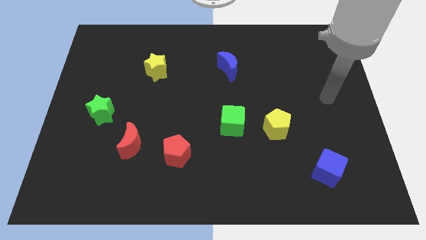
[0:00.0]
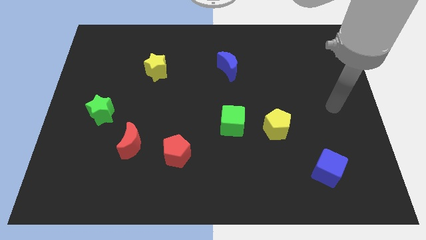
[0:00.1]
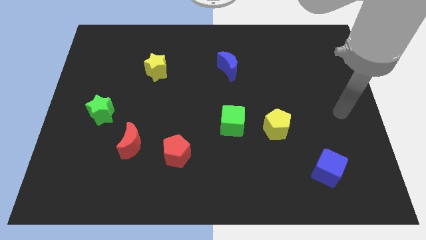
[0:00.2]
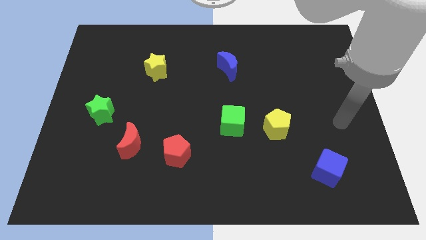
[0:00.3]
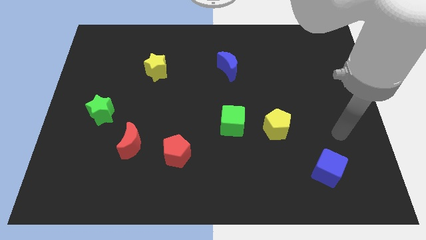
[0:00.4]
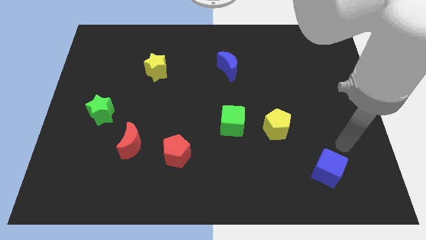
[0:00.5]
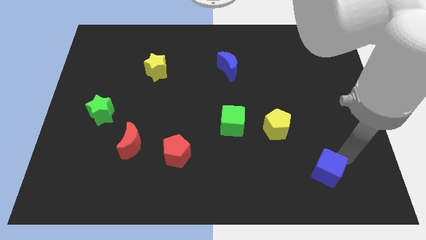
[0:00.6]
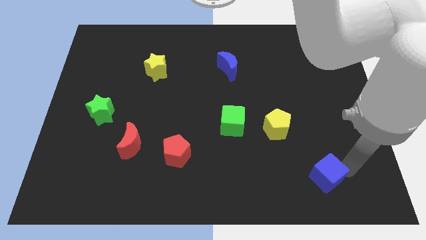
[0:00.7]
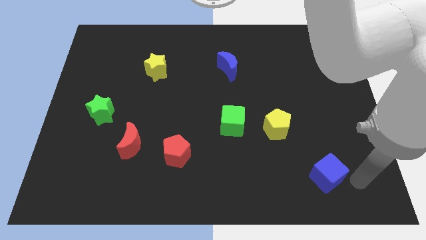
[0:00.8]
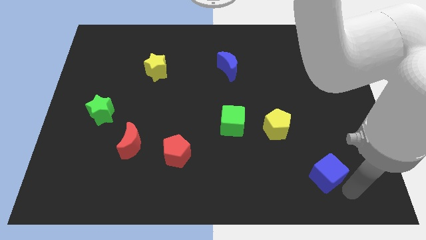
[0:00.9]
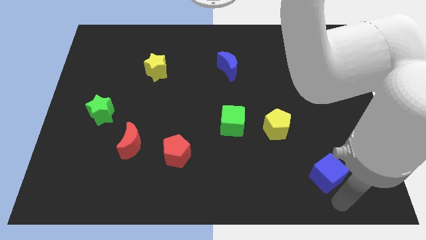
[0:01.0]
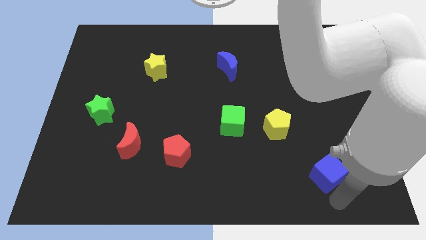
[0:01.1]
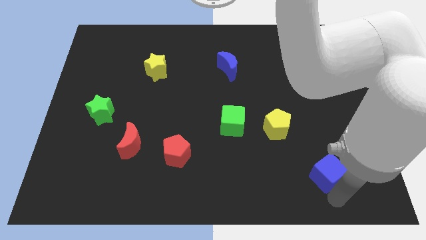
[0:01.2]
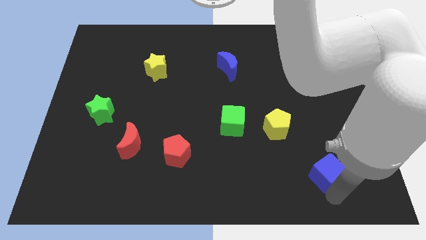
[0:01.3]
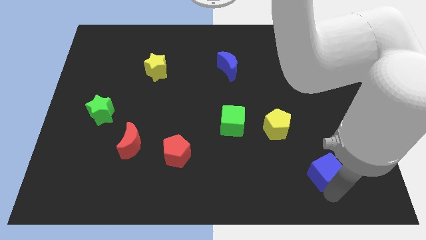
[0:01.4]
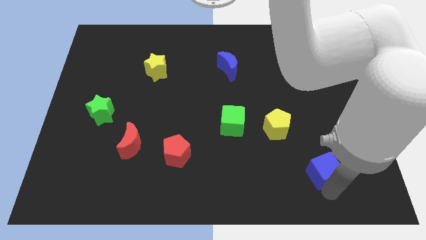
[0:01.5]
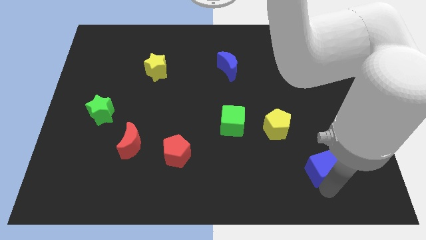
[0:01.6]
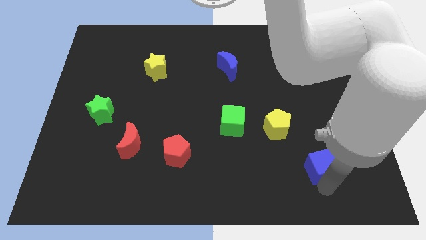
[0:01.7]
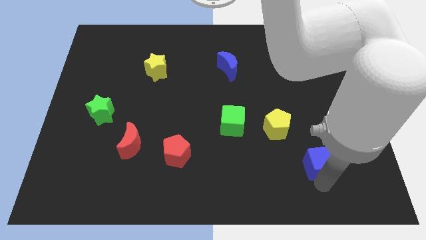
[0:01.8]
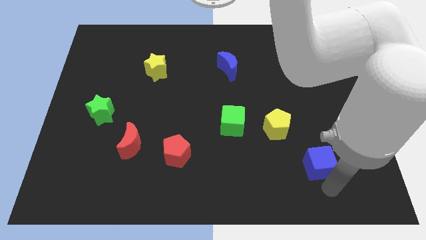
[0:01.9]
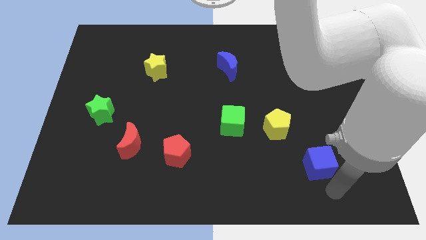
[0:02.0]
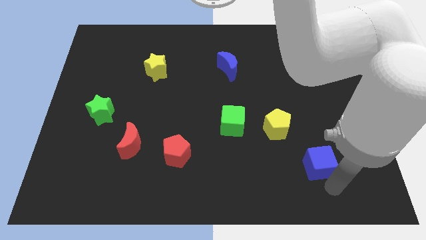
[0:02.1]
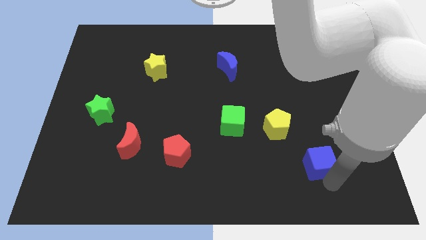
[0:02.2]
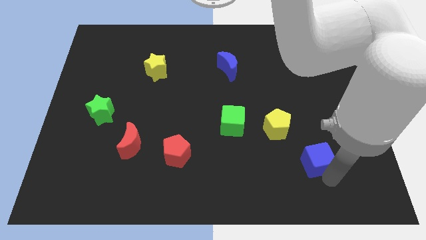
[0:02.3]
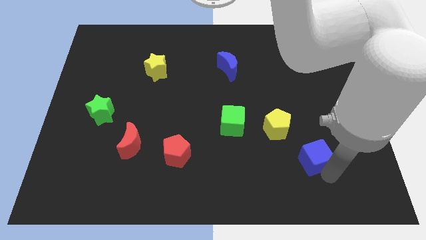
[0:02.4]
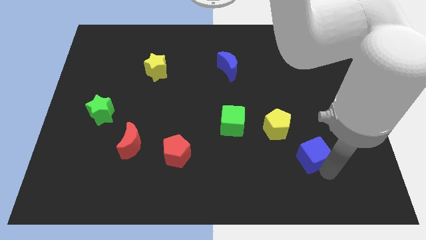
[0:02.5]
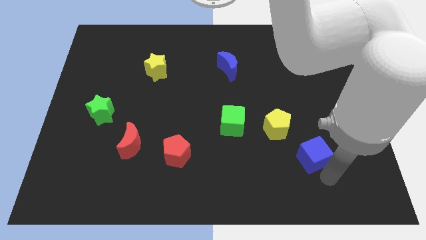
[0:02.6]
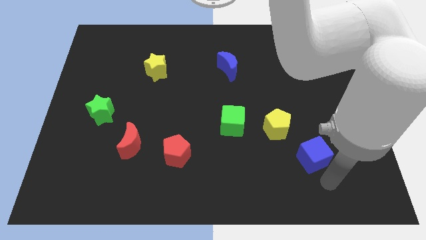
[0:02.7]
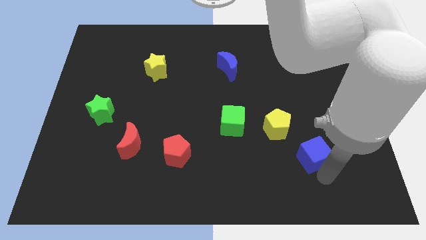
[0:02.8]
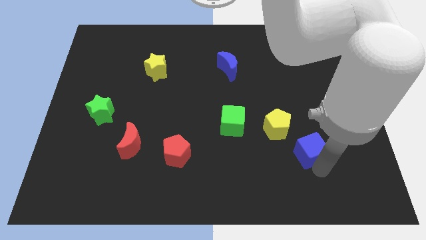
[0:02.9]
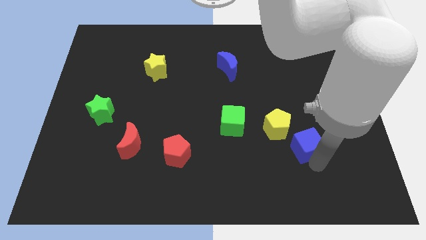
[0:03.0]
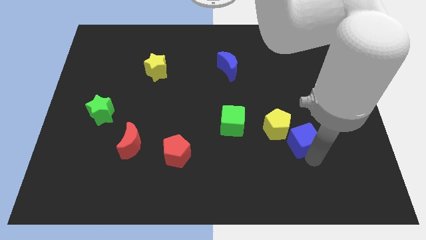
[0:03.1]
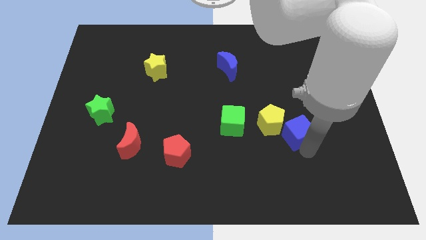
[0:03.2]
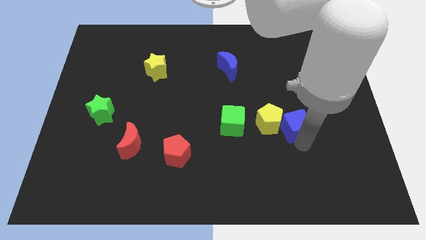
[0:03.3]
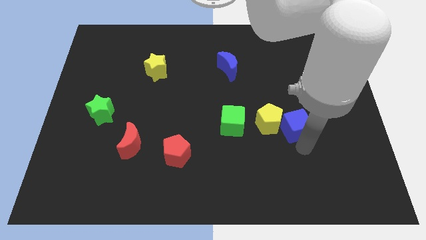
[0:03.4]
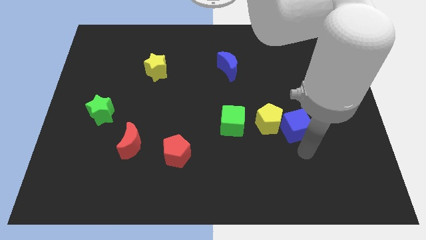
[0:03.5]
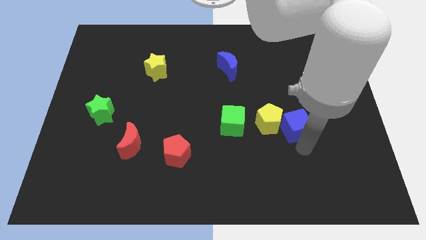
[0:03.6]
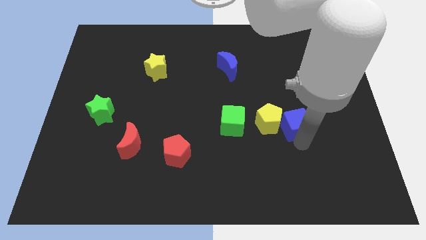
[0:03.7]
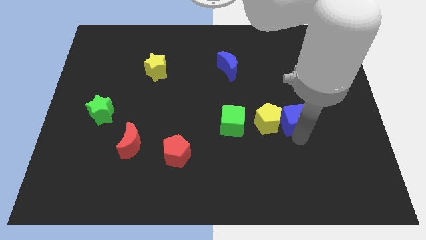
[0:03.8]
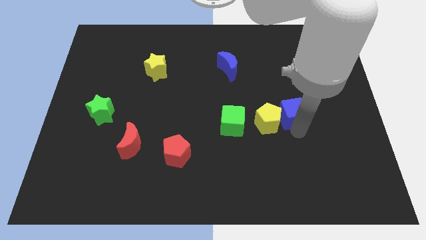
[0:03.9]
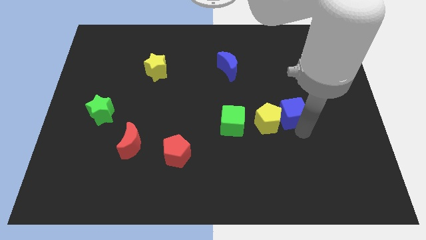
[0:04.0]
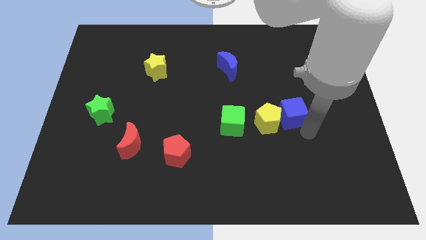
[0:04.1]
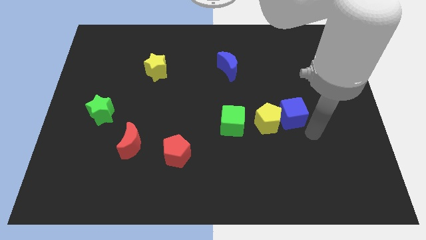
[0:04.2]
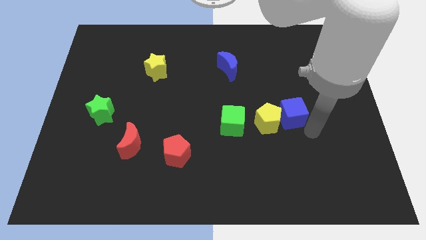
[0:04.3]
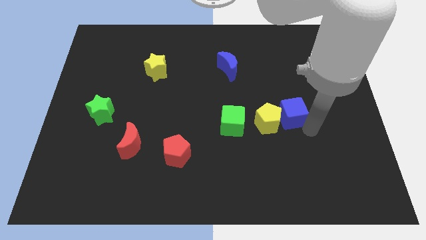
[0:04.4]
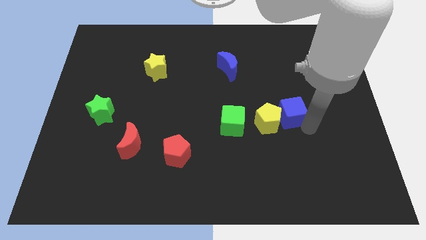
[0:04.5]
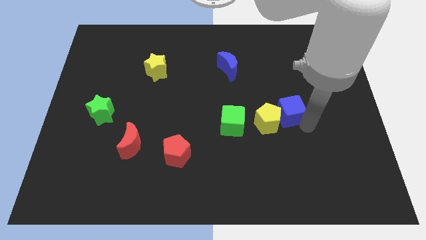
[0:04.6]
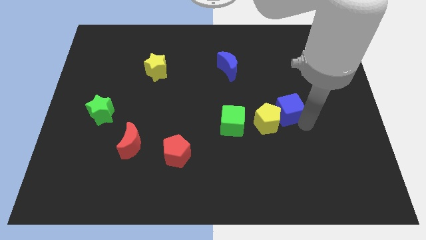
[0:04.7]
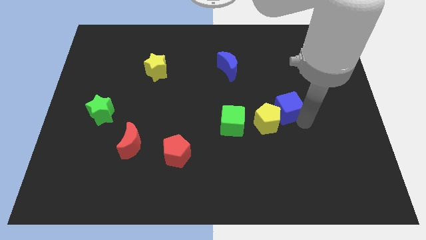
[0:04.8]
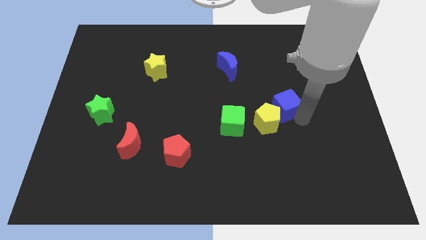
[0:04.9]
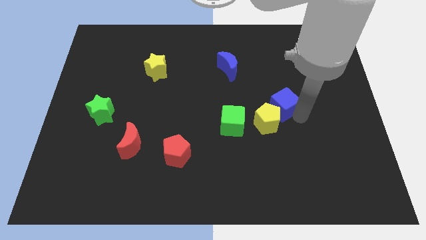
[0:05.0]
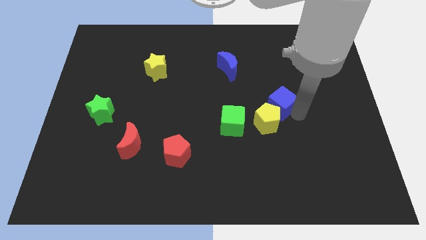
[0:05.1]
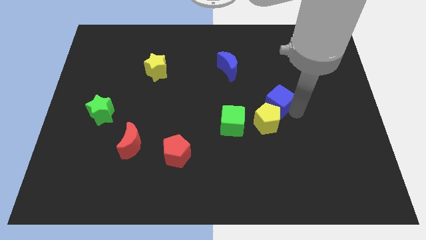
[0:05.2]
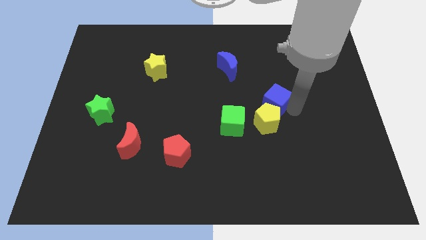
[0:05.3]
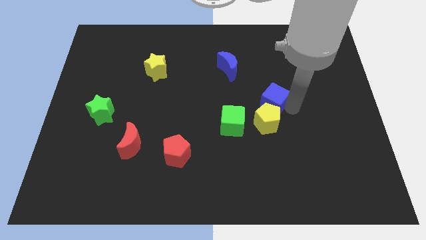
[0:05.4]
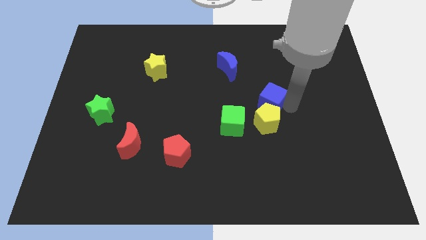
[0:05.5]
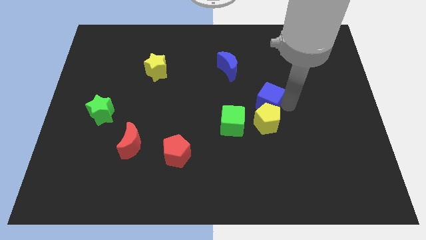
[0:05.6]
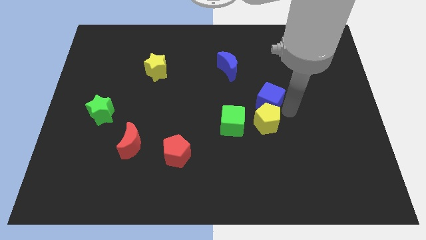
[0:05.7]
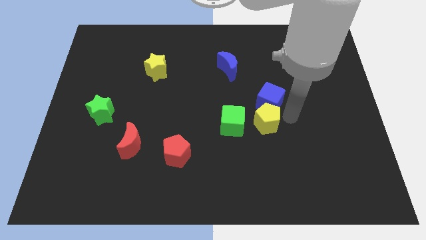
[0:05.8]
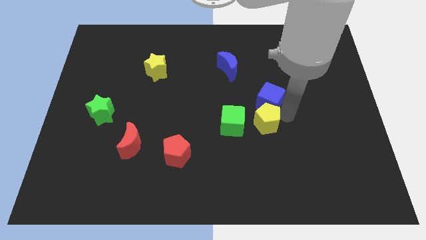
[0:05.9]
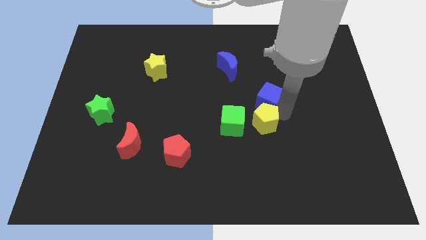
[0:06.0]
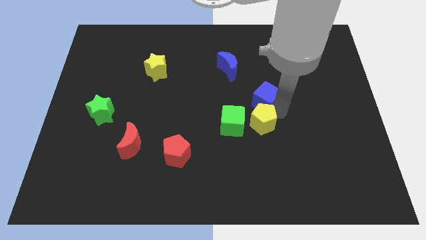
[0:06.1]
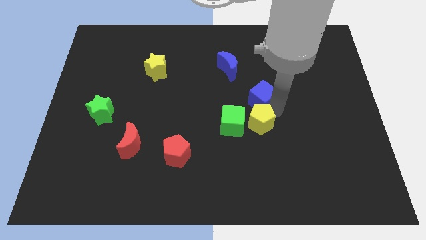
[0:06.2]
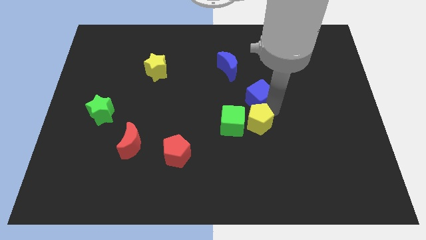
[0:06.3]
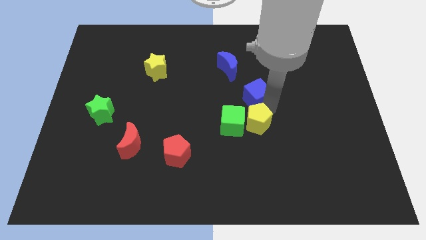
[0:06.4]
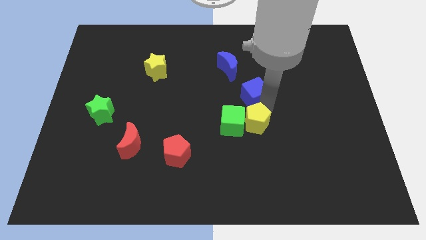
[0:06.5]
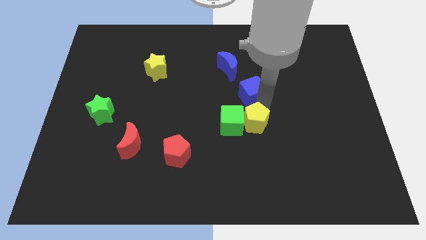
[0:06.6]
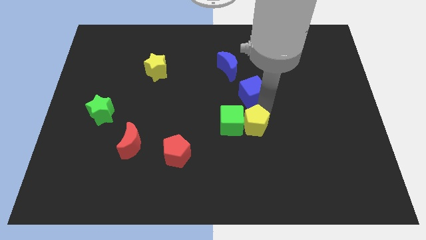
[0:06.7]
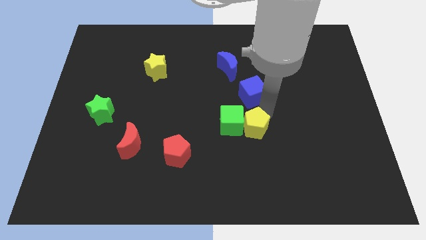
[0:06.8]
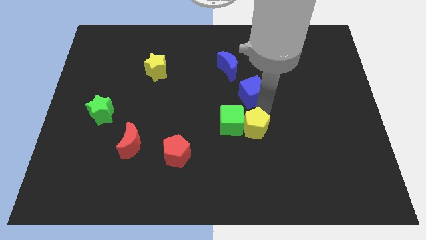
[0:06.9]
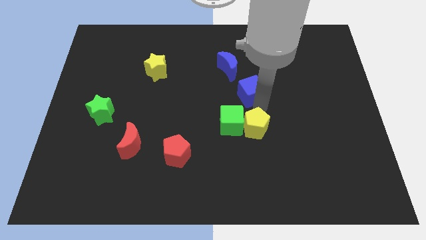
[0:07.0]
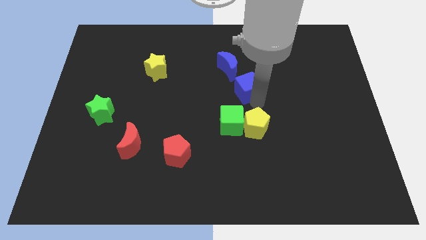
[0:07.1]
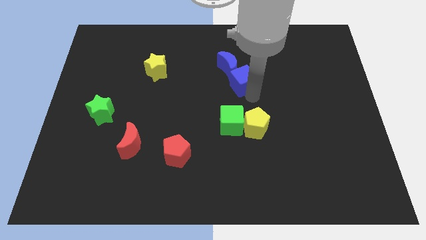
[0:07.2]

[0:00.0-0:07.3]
move the blue cube towards the blue moon
